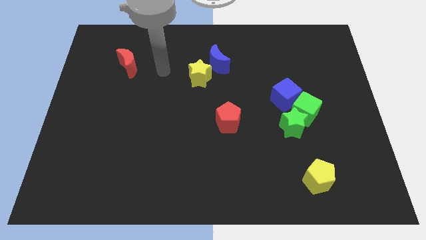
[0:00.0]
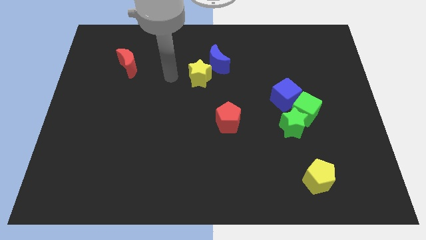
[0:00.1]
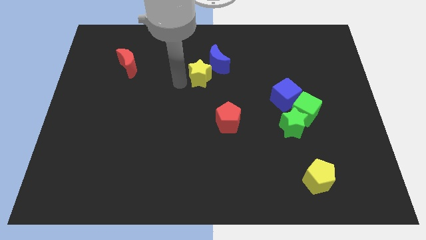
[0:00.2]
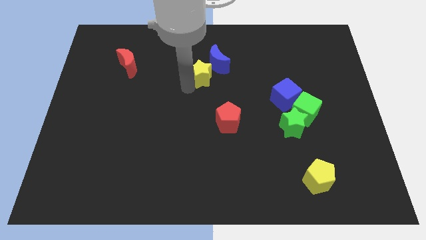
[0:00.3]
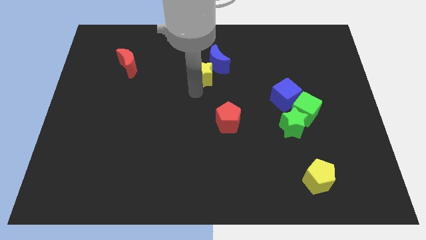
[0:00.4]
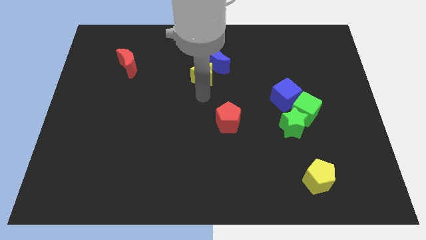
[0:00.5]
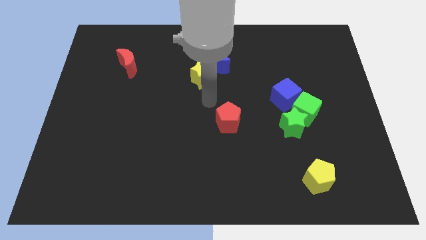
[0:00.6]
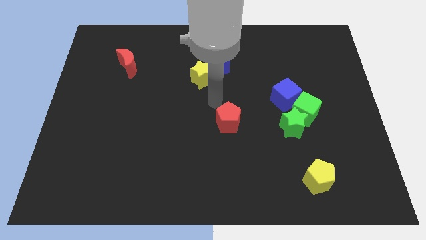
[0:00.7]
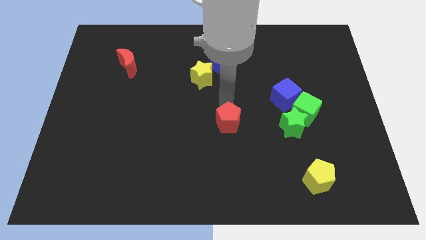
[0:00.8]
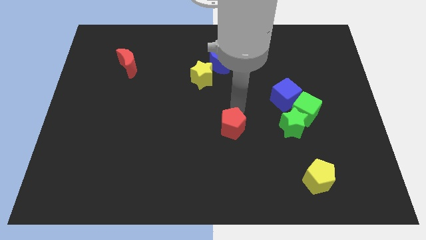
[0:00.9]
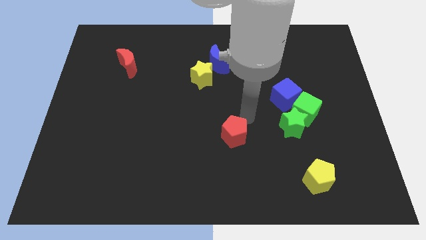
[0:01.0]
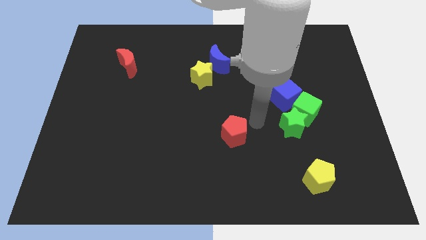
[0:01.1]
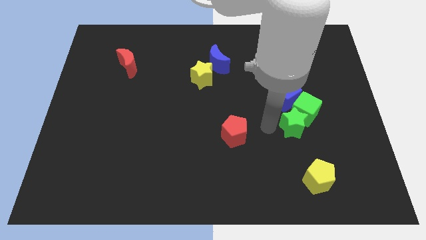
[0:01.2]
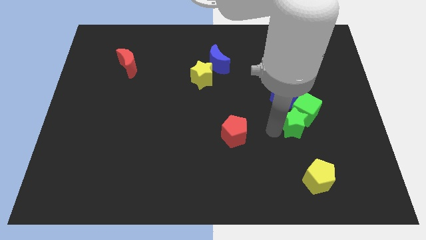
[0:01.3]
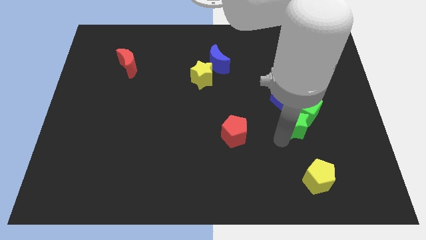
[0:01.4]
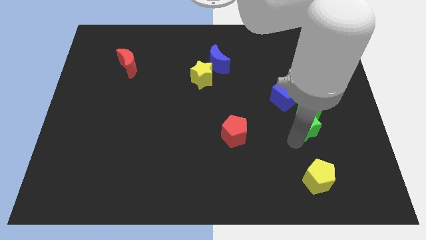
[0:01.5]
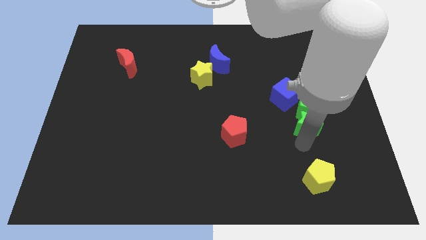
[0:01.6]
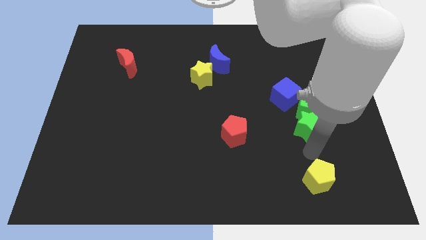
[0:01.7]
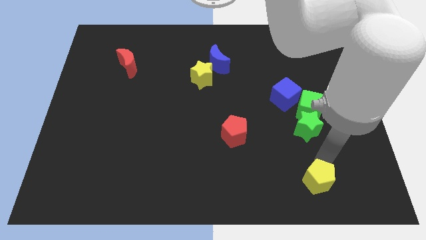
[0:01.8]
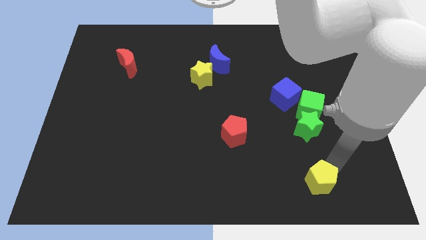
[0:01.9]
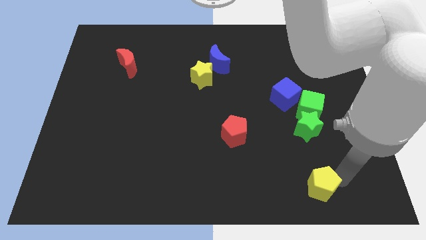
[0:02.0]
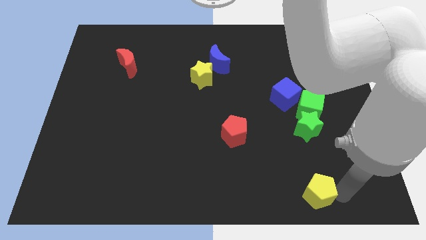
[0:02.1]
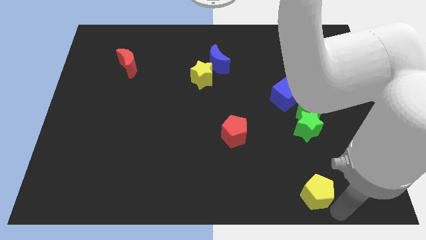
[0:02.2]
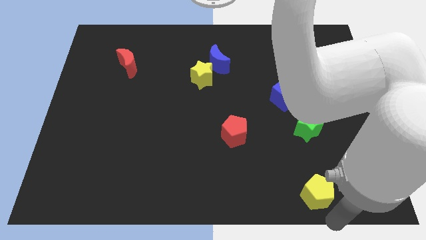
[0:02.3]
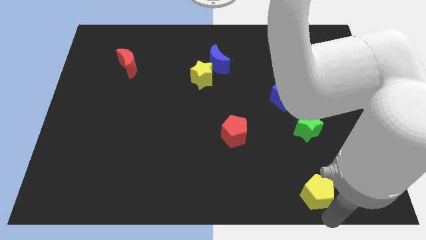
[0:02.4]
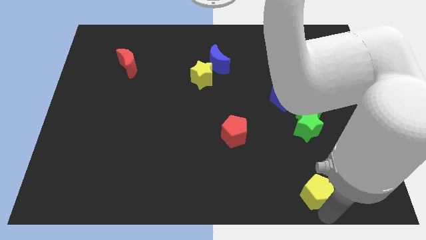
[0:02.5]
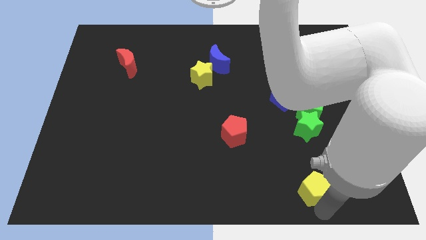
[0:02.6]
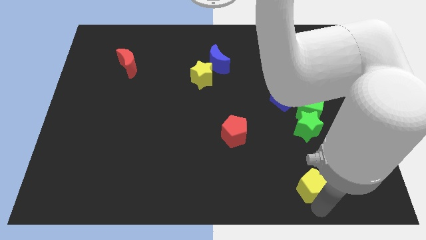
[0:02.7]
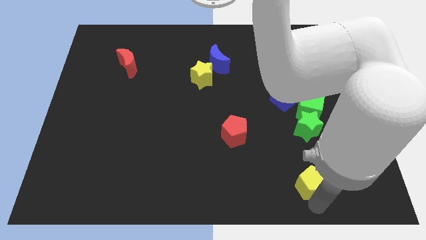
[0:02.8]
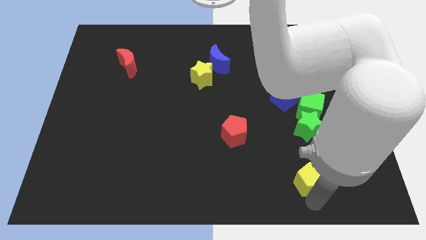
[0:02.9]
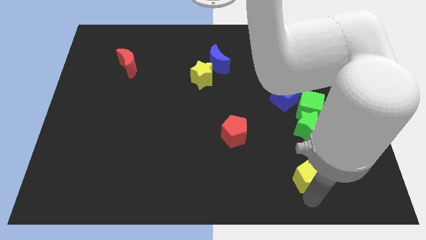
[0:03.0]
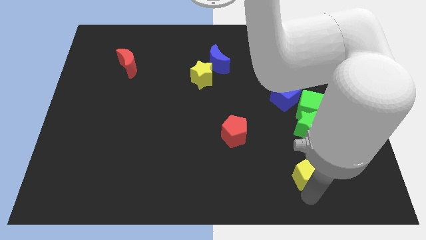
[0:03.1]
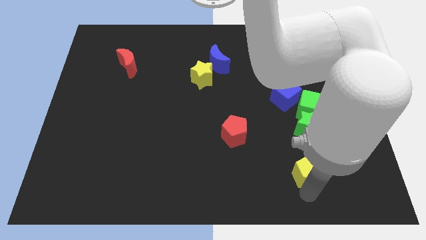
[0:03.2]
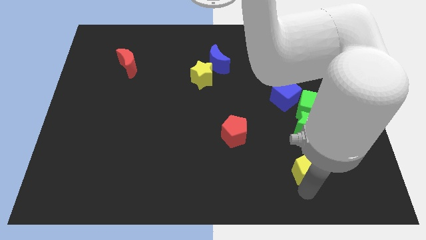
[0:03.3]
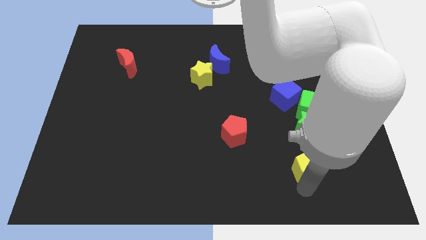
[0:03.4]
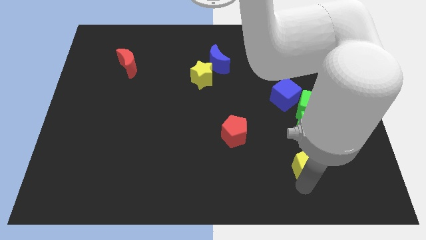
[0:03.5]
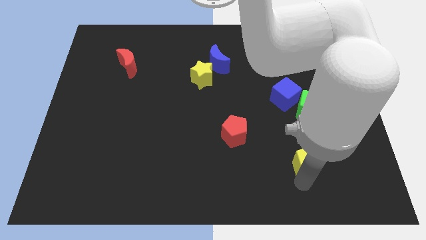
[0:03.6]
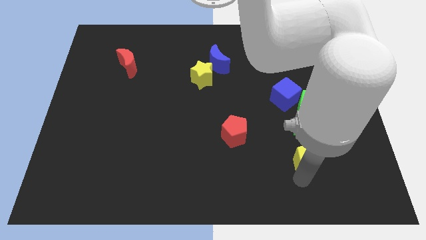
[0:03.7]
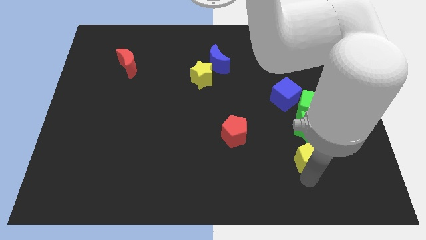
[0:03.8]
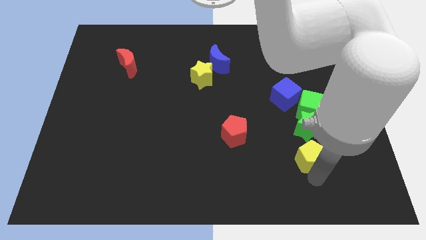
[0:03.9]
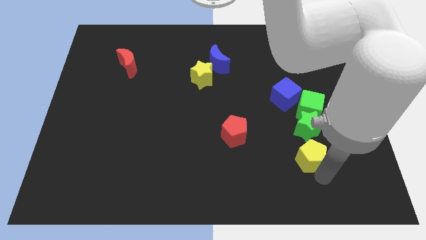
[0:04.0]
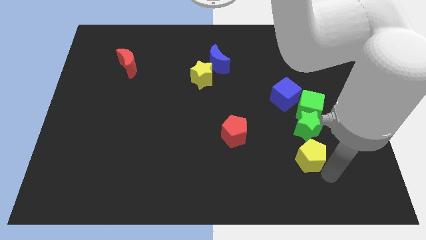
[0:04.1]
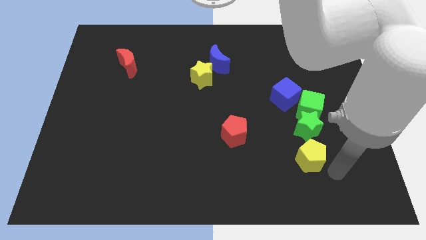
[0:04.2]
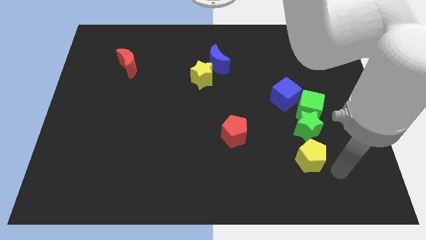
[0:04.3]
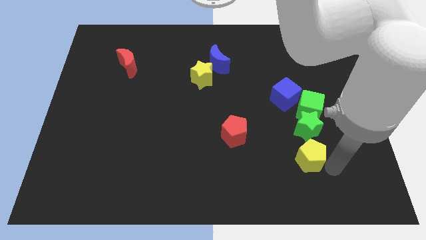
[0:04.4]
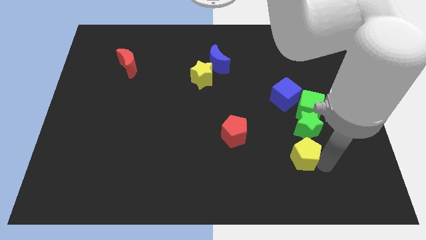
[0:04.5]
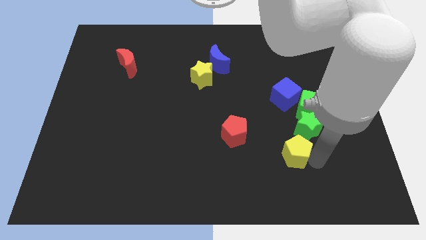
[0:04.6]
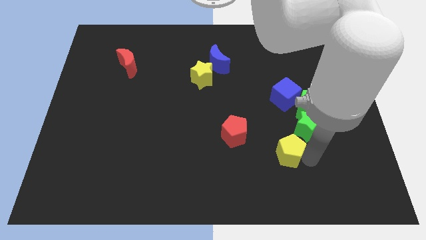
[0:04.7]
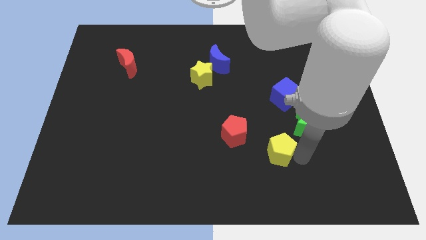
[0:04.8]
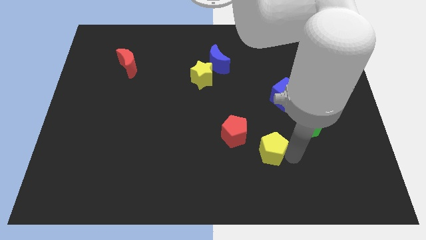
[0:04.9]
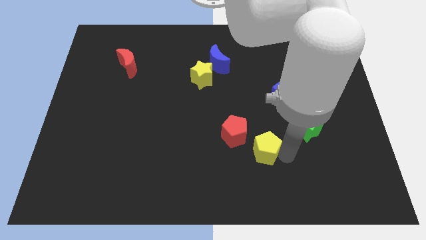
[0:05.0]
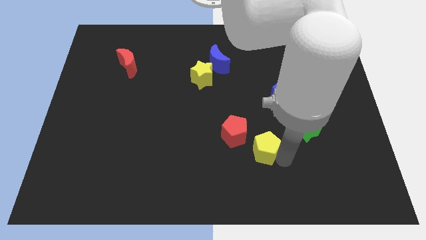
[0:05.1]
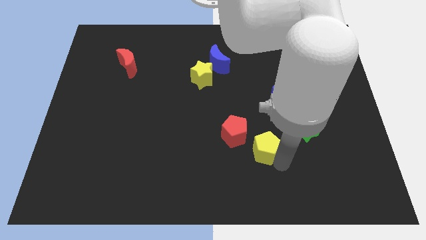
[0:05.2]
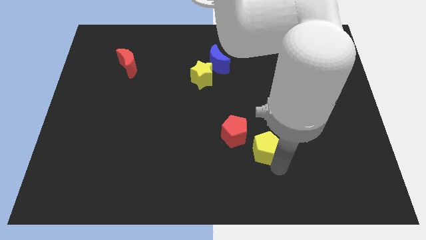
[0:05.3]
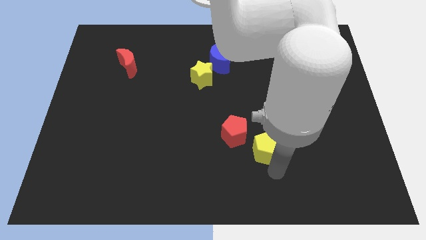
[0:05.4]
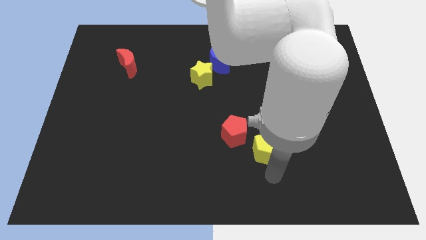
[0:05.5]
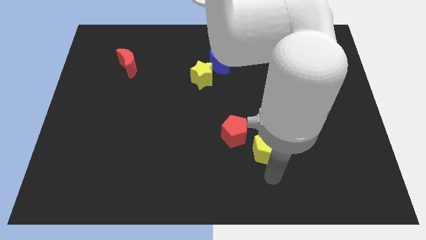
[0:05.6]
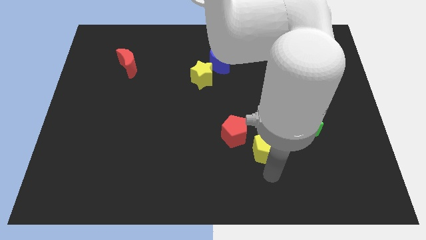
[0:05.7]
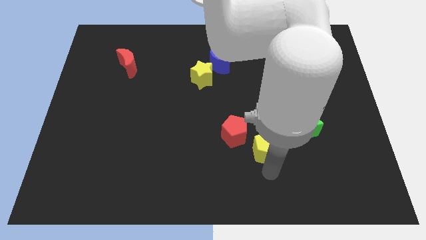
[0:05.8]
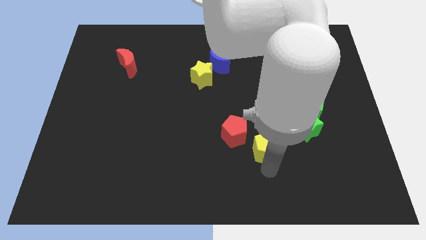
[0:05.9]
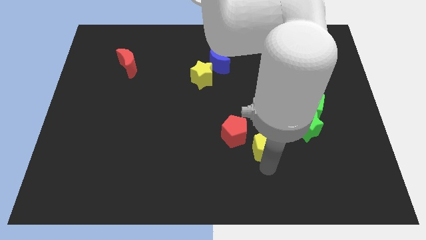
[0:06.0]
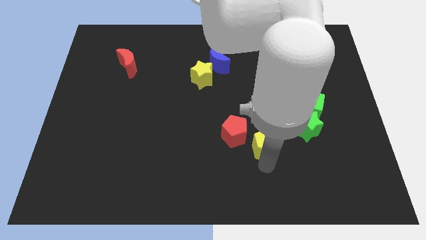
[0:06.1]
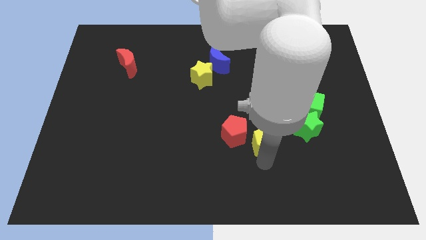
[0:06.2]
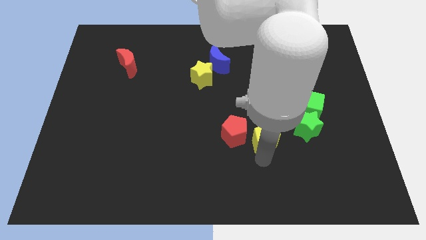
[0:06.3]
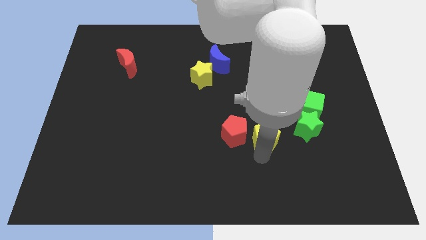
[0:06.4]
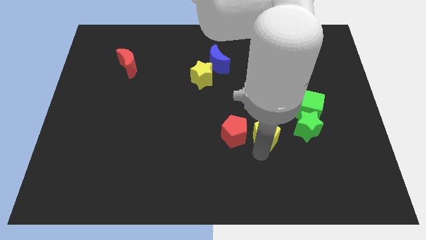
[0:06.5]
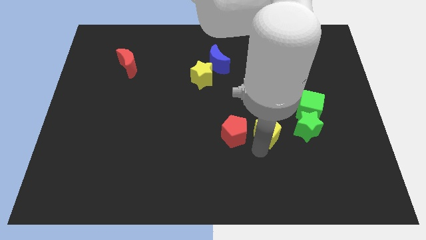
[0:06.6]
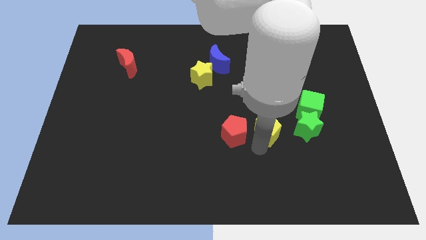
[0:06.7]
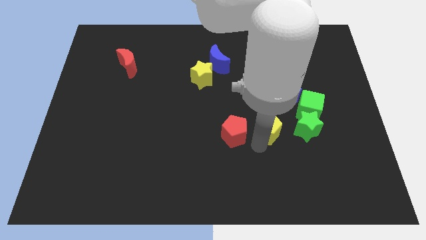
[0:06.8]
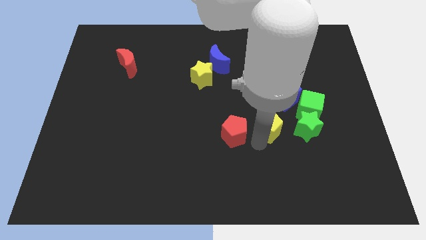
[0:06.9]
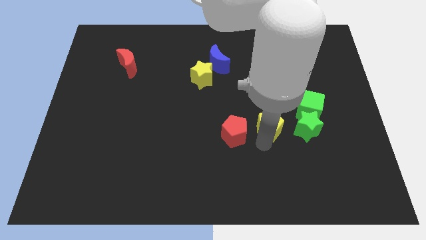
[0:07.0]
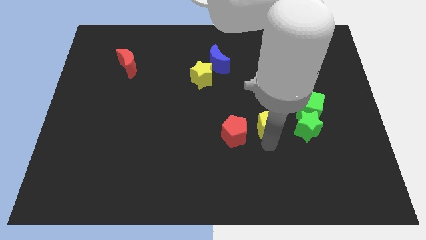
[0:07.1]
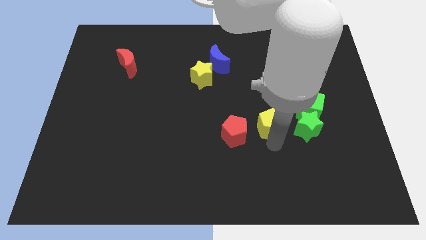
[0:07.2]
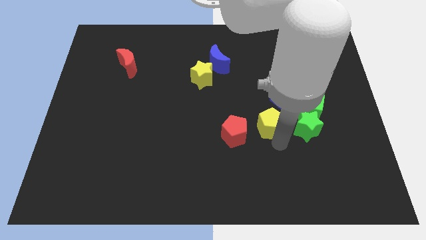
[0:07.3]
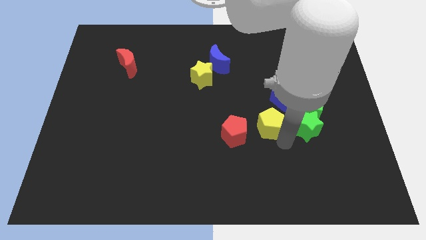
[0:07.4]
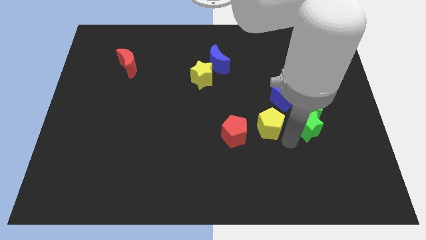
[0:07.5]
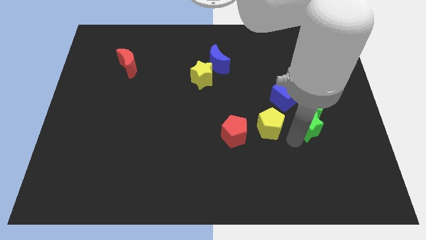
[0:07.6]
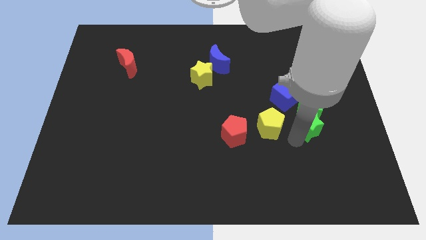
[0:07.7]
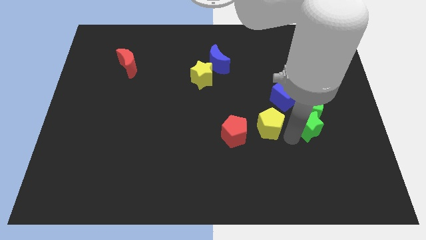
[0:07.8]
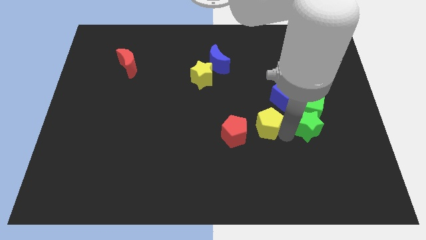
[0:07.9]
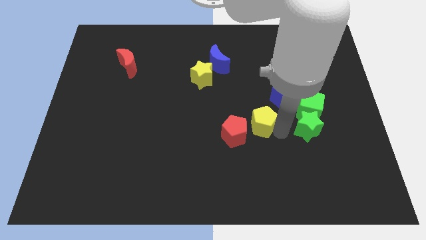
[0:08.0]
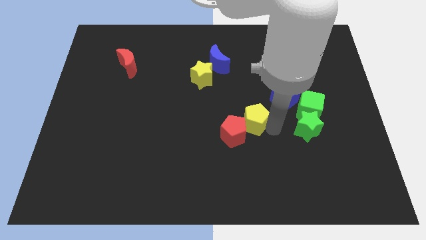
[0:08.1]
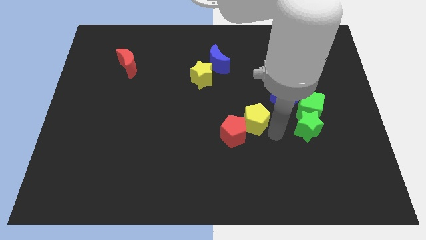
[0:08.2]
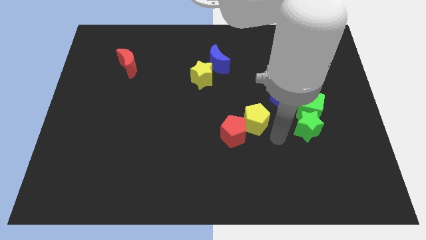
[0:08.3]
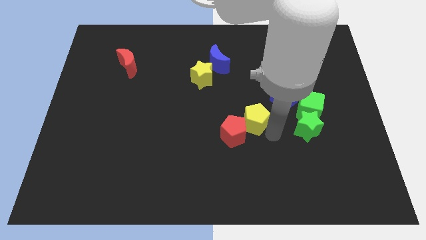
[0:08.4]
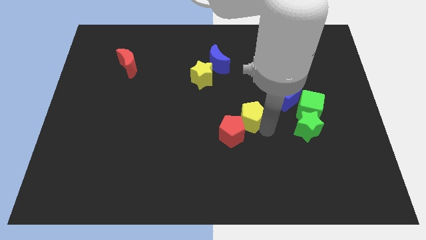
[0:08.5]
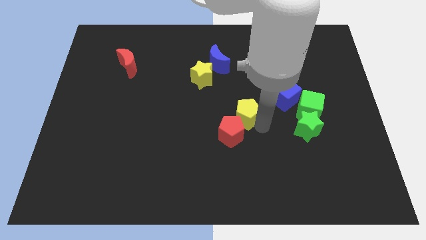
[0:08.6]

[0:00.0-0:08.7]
push the yellow pentagon diagonally up and left
